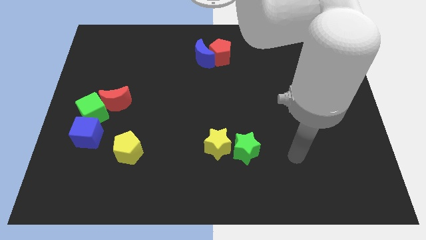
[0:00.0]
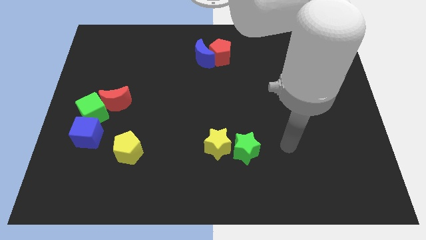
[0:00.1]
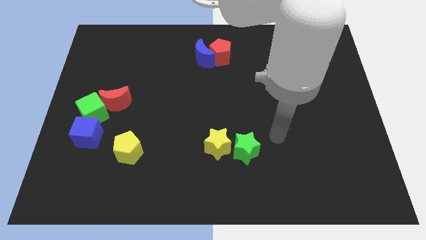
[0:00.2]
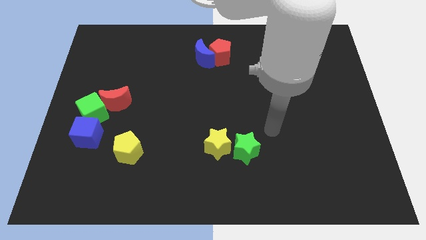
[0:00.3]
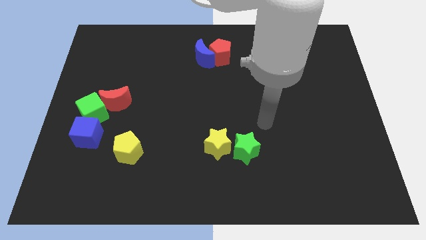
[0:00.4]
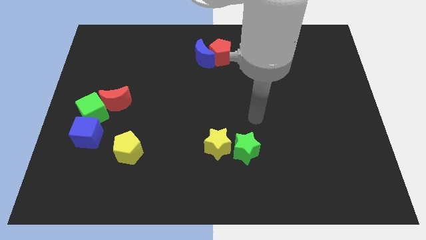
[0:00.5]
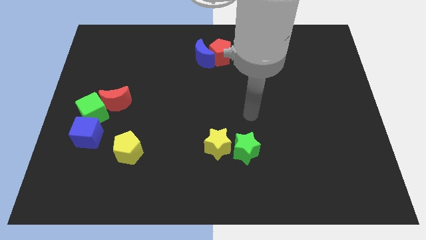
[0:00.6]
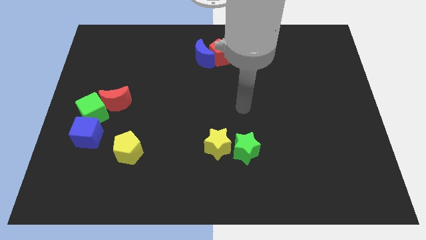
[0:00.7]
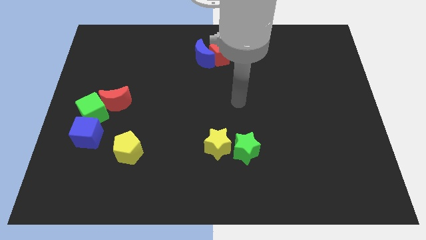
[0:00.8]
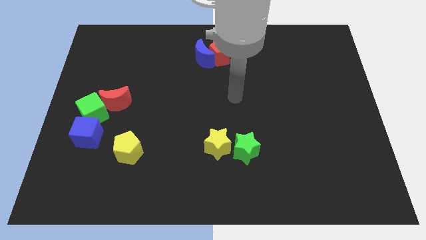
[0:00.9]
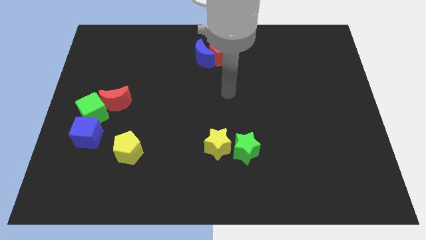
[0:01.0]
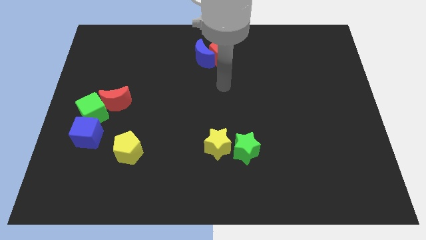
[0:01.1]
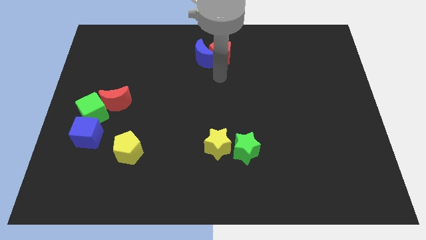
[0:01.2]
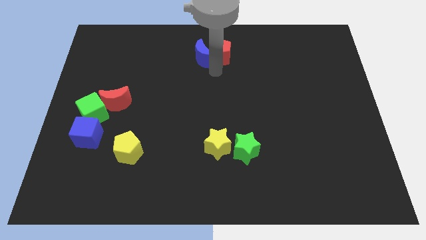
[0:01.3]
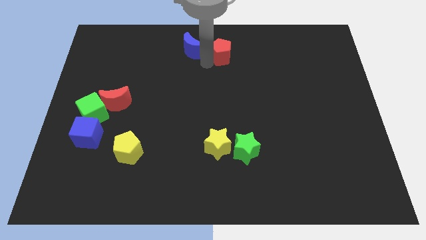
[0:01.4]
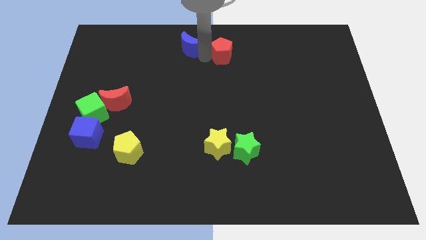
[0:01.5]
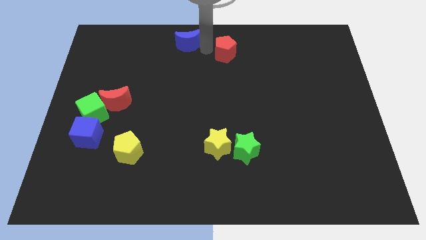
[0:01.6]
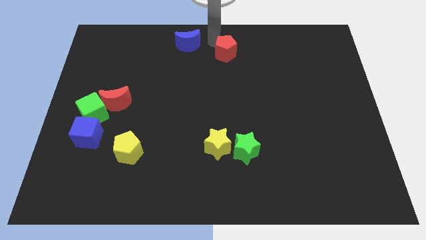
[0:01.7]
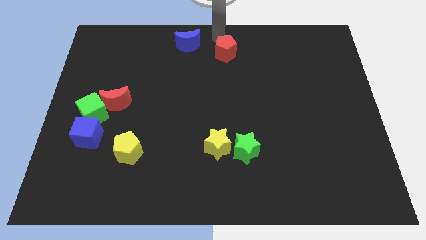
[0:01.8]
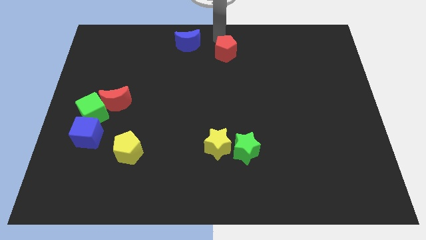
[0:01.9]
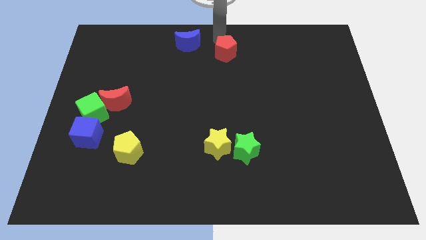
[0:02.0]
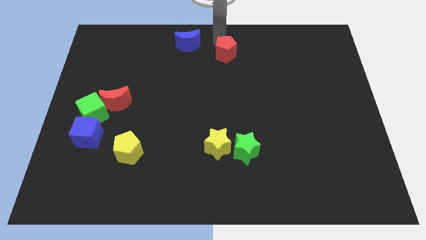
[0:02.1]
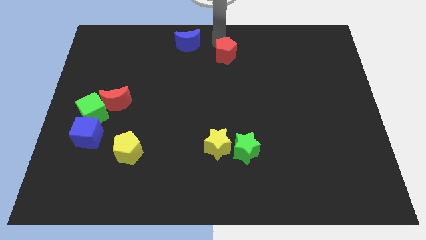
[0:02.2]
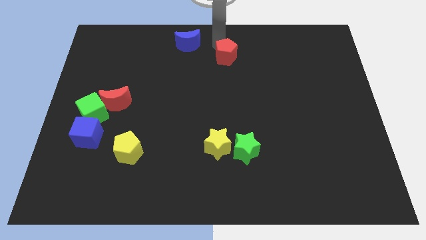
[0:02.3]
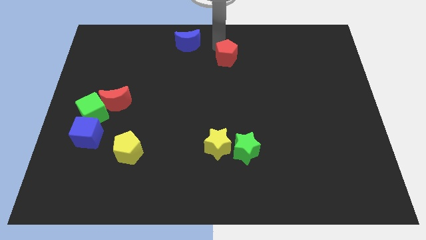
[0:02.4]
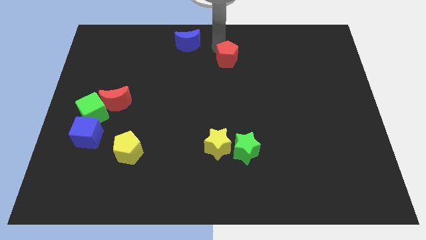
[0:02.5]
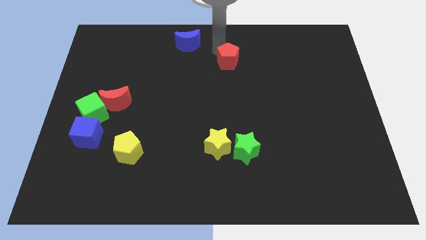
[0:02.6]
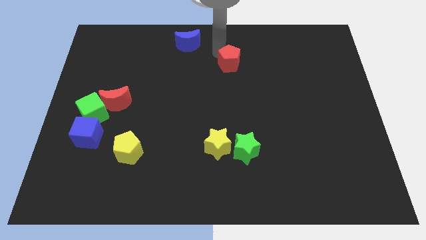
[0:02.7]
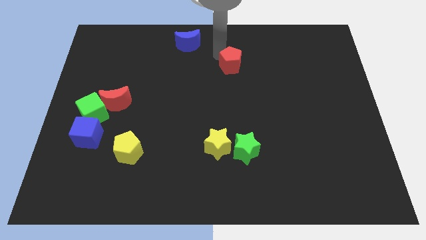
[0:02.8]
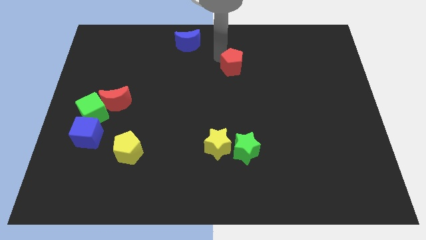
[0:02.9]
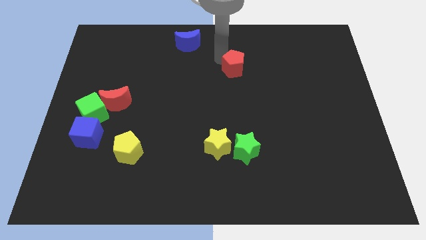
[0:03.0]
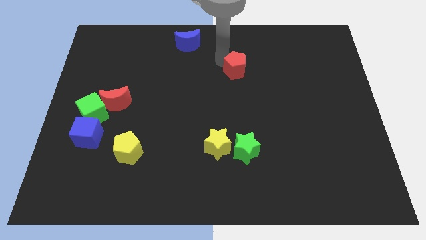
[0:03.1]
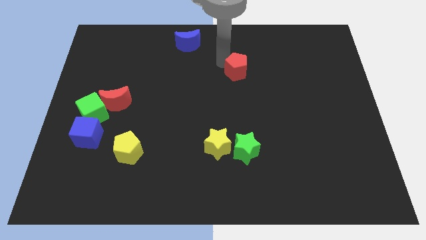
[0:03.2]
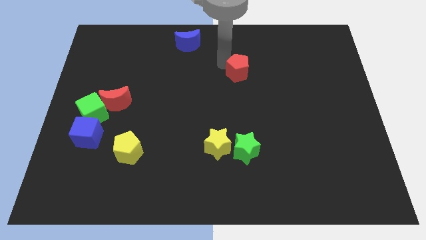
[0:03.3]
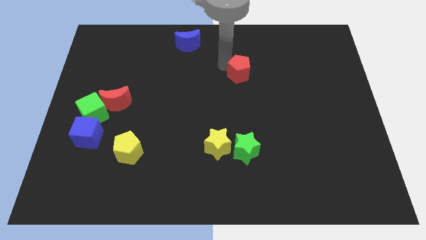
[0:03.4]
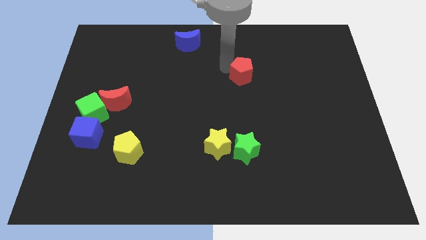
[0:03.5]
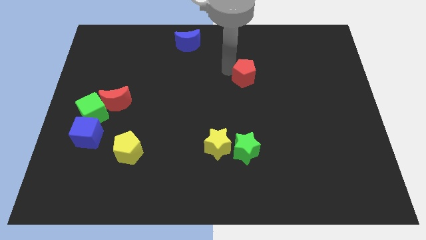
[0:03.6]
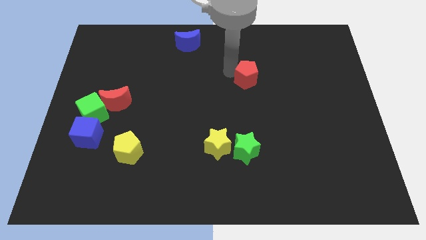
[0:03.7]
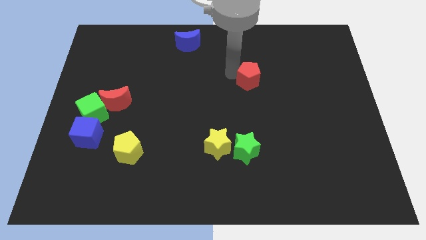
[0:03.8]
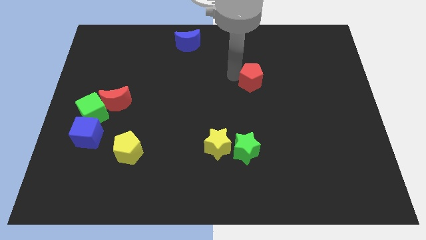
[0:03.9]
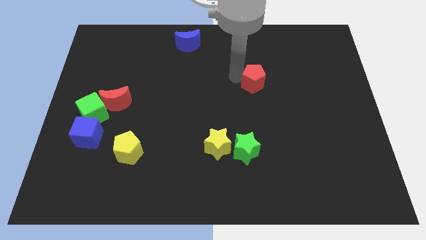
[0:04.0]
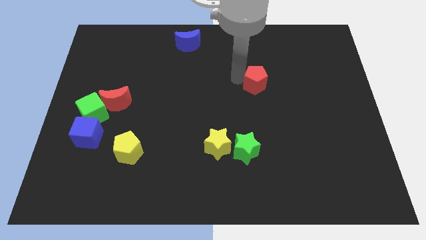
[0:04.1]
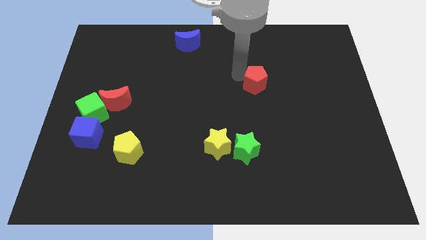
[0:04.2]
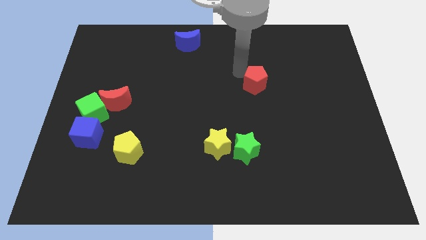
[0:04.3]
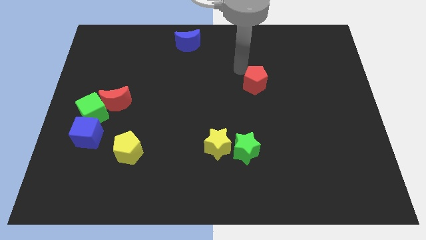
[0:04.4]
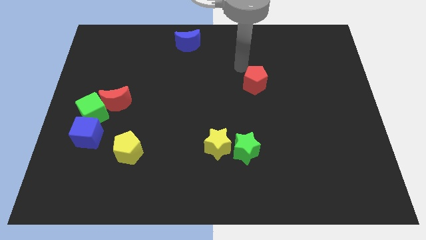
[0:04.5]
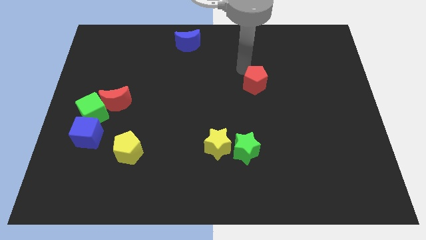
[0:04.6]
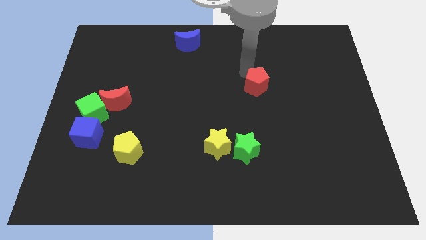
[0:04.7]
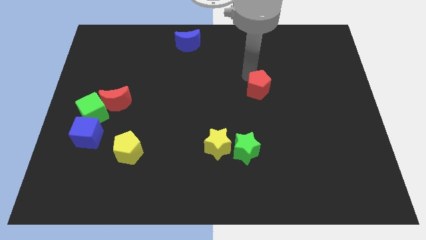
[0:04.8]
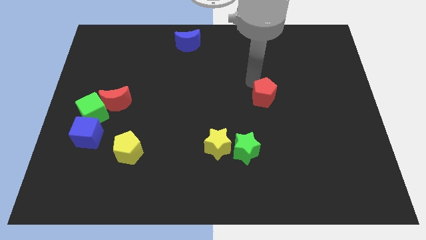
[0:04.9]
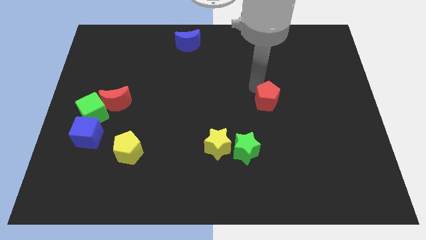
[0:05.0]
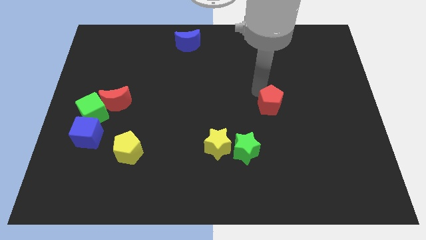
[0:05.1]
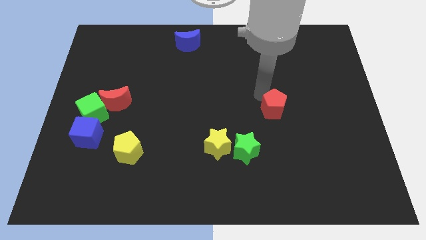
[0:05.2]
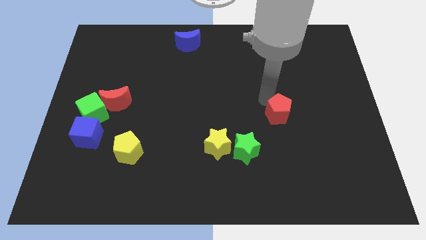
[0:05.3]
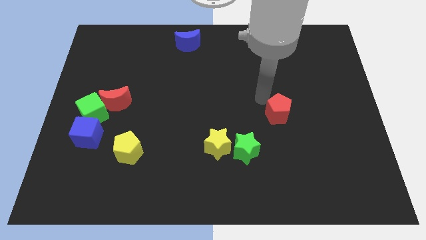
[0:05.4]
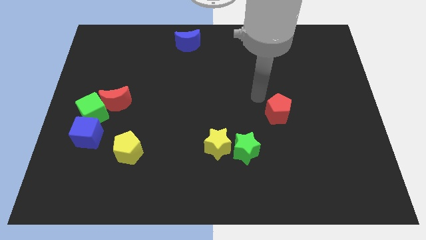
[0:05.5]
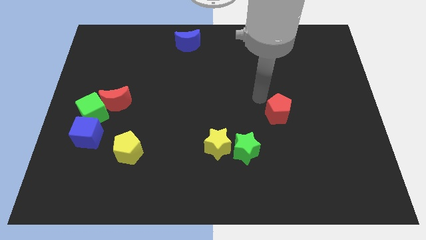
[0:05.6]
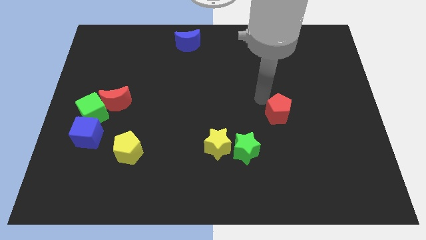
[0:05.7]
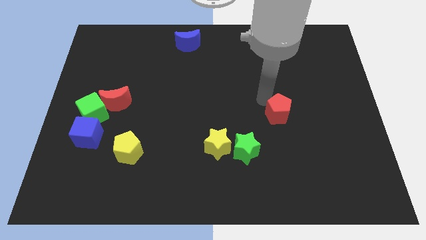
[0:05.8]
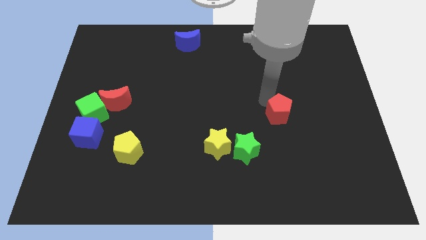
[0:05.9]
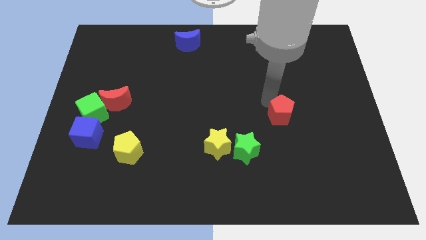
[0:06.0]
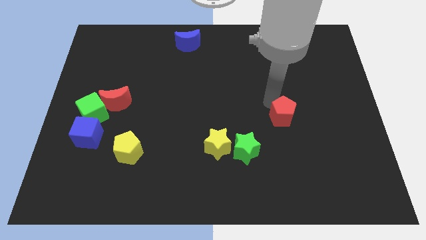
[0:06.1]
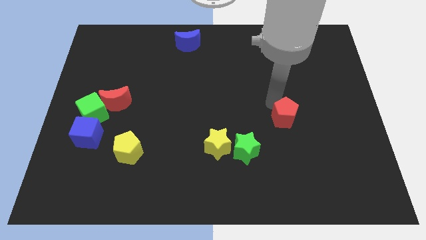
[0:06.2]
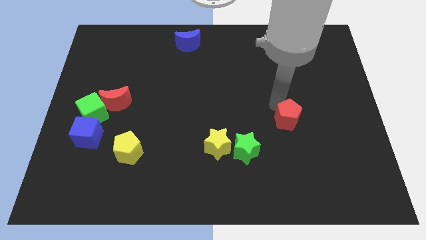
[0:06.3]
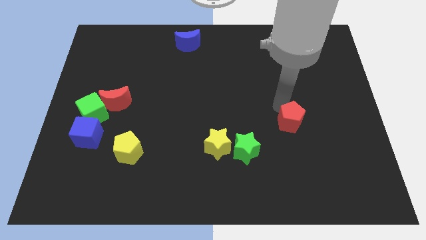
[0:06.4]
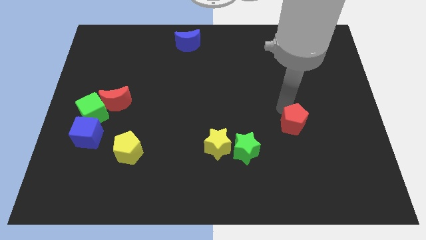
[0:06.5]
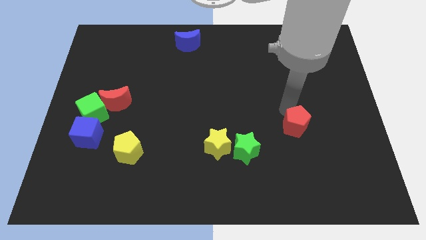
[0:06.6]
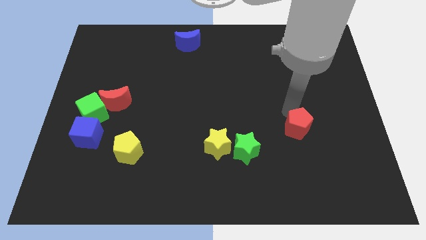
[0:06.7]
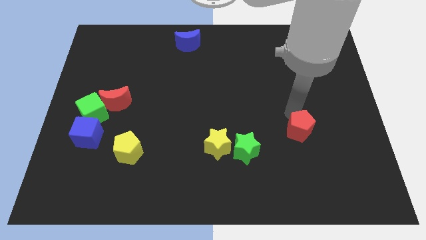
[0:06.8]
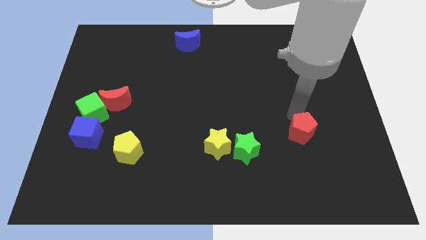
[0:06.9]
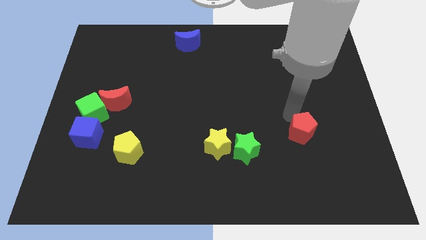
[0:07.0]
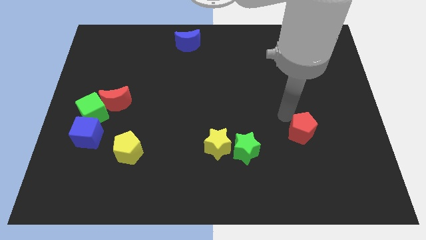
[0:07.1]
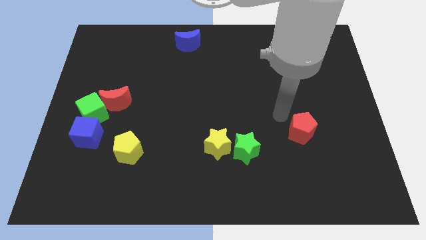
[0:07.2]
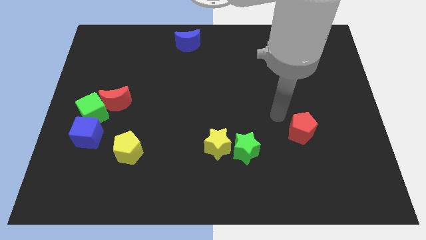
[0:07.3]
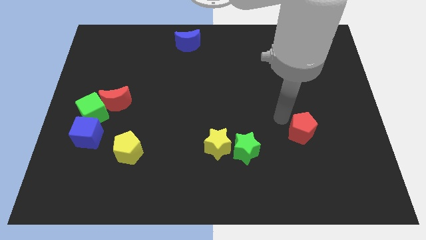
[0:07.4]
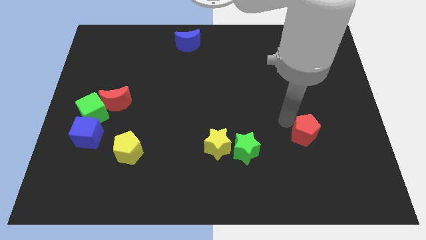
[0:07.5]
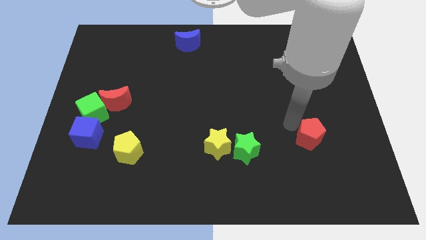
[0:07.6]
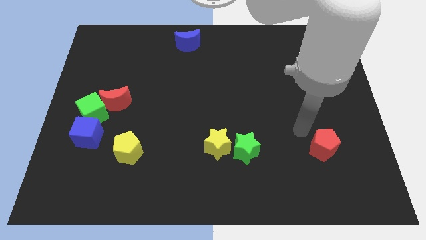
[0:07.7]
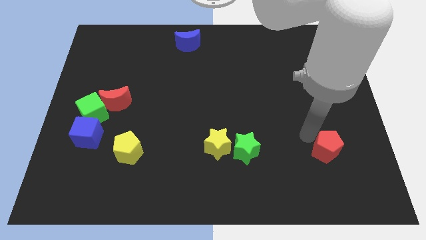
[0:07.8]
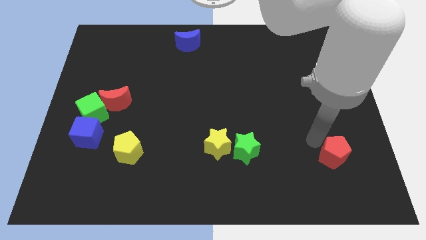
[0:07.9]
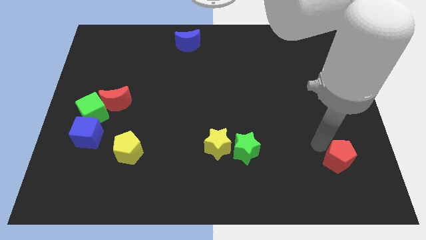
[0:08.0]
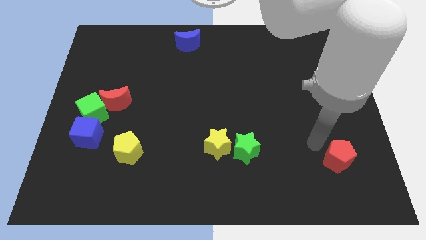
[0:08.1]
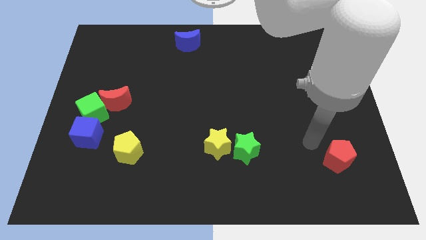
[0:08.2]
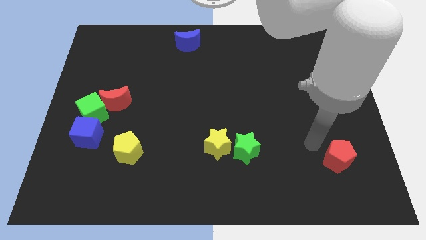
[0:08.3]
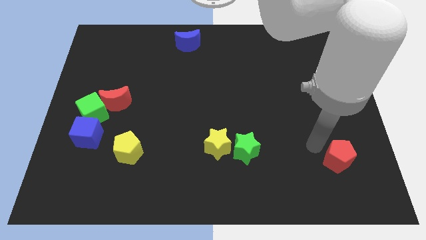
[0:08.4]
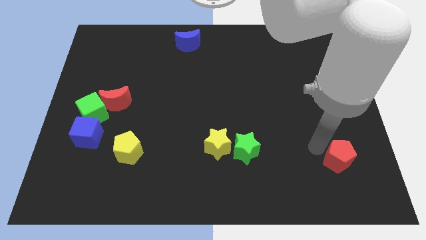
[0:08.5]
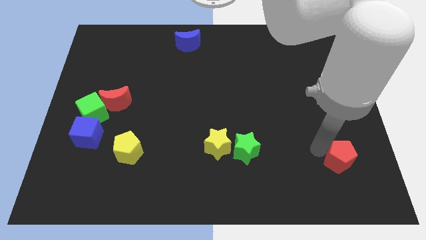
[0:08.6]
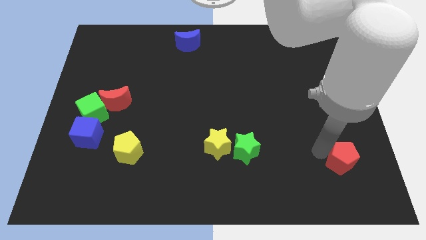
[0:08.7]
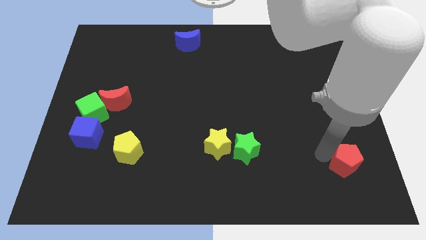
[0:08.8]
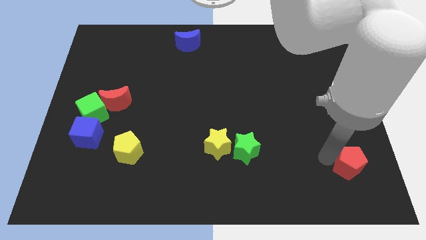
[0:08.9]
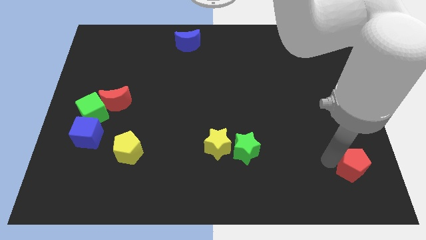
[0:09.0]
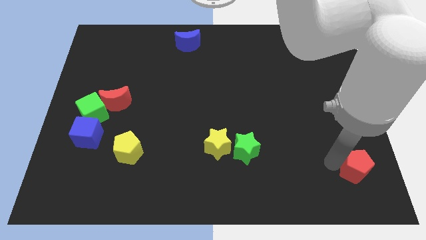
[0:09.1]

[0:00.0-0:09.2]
move the red pentagon to the bottom right corner
